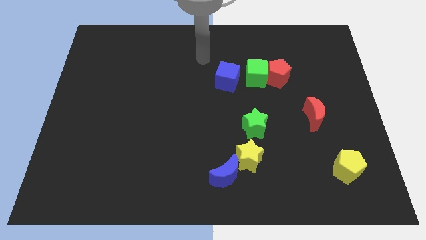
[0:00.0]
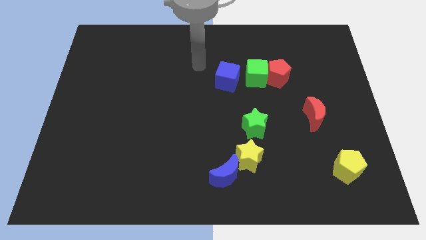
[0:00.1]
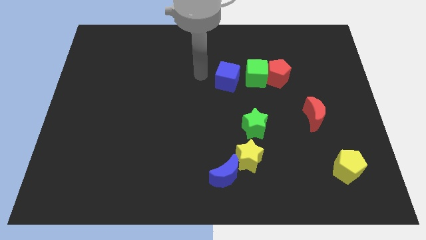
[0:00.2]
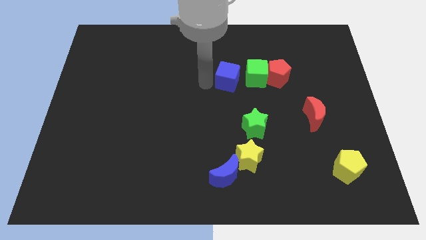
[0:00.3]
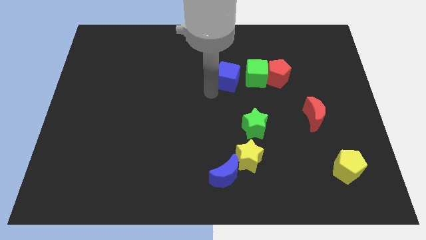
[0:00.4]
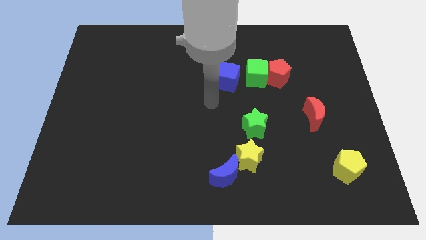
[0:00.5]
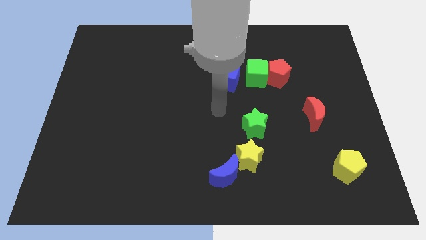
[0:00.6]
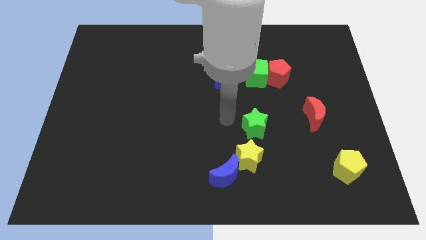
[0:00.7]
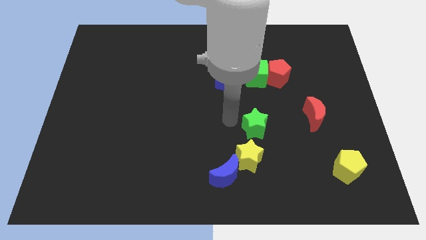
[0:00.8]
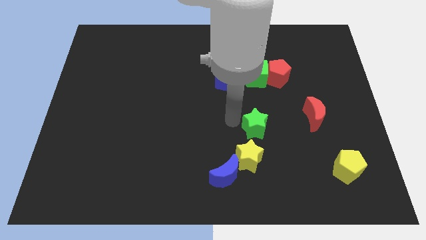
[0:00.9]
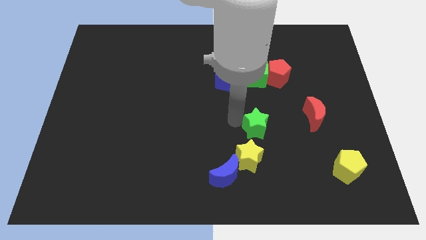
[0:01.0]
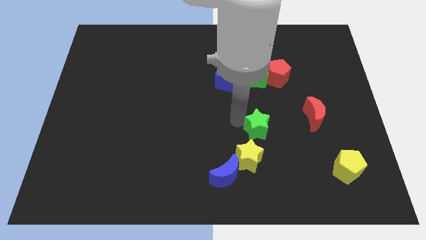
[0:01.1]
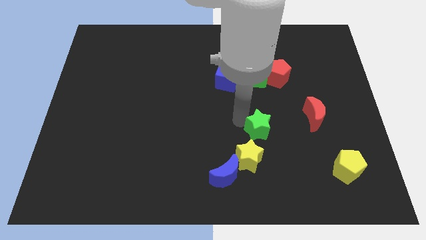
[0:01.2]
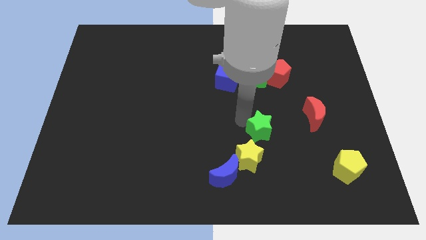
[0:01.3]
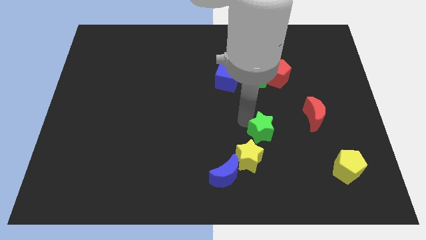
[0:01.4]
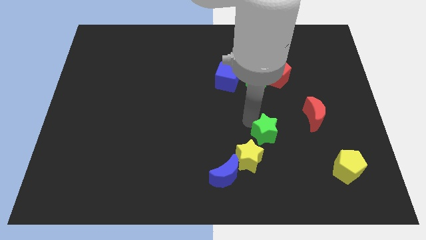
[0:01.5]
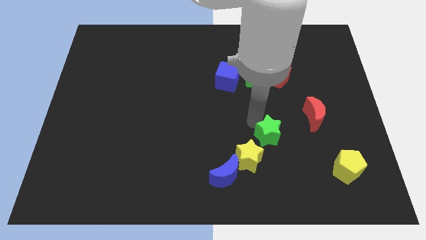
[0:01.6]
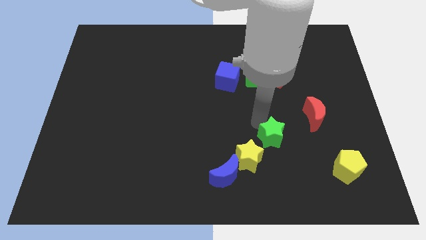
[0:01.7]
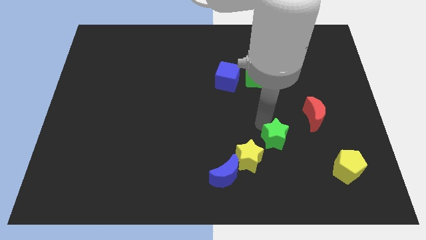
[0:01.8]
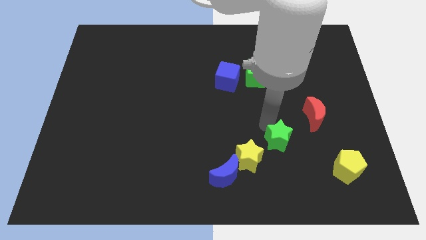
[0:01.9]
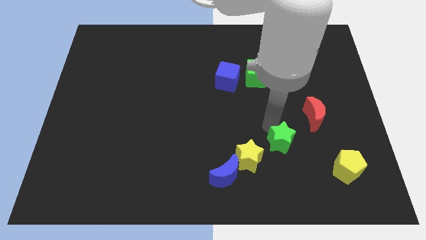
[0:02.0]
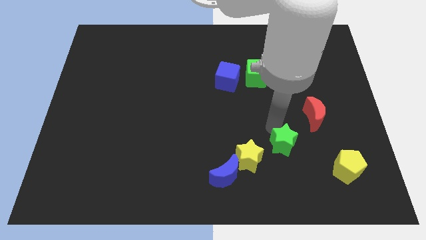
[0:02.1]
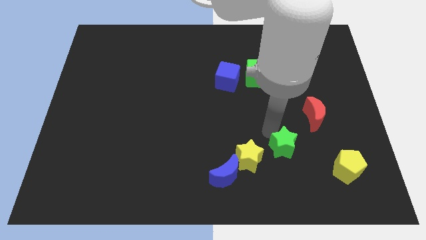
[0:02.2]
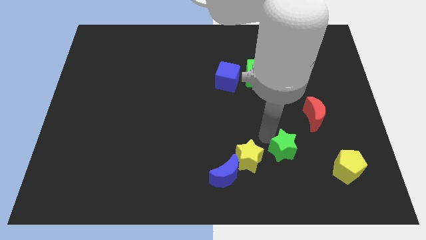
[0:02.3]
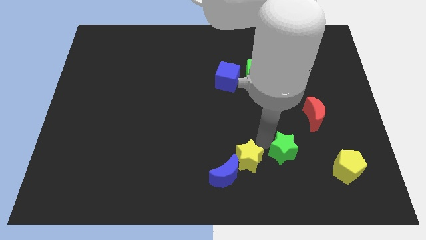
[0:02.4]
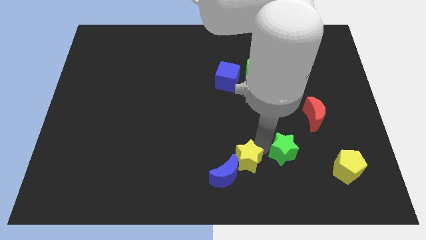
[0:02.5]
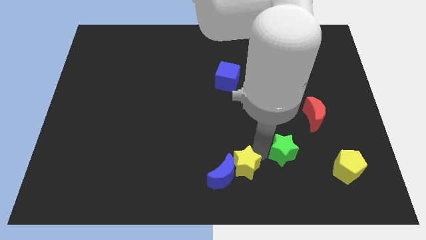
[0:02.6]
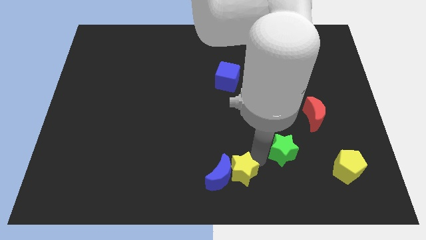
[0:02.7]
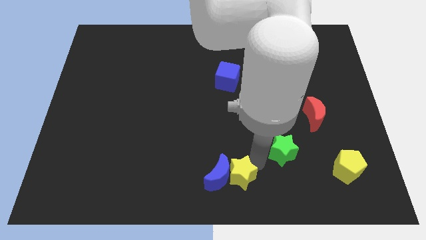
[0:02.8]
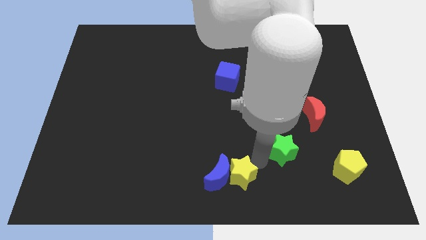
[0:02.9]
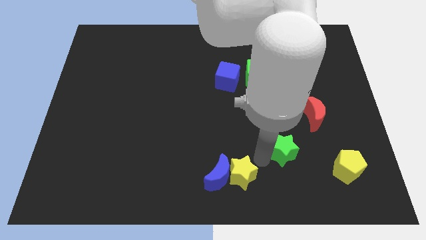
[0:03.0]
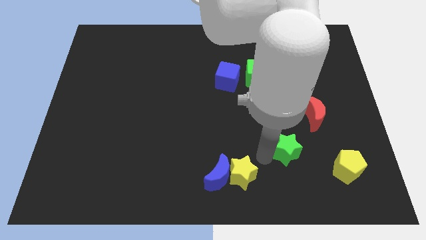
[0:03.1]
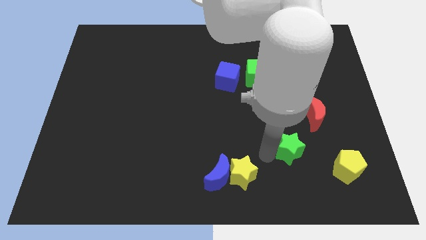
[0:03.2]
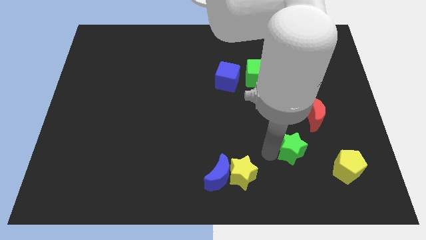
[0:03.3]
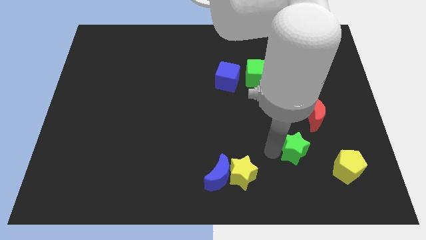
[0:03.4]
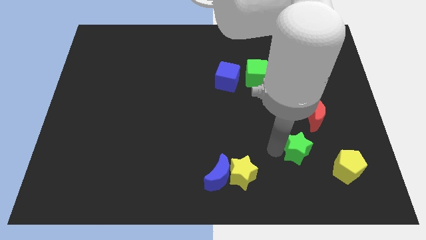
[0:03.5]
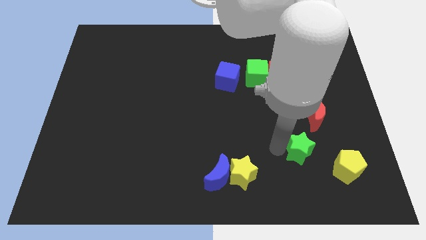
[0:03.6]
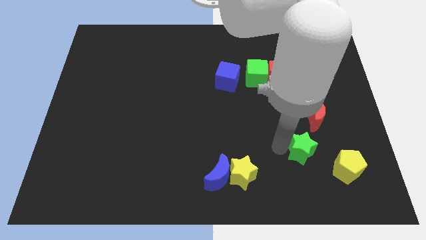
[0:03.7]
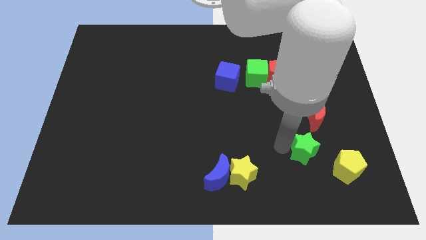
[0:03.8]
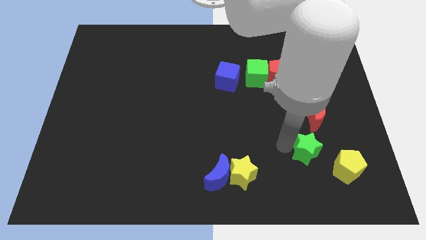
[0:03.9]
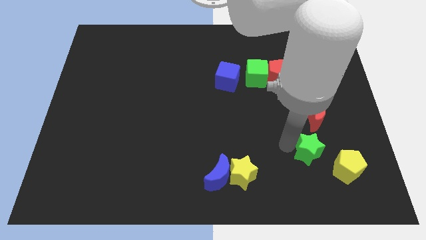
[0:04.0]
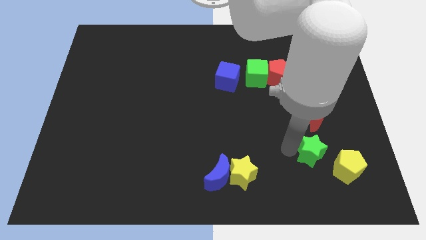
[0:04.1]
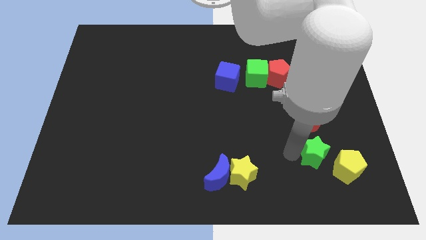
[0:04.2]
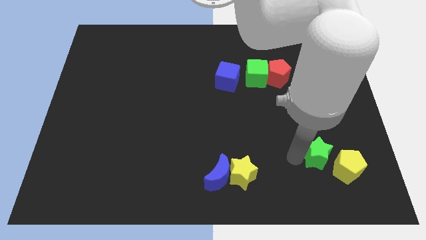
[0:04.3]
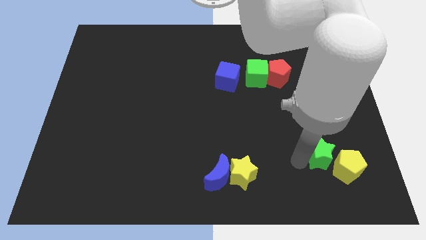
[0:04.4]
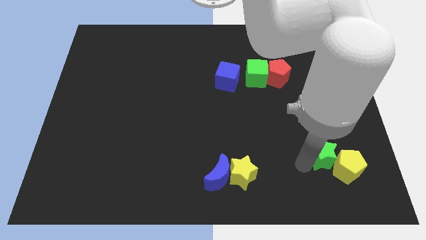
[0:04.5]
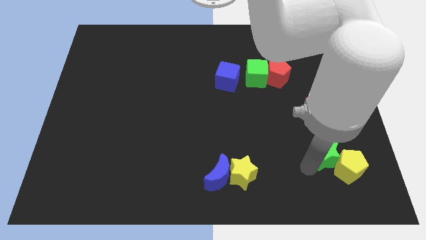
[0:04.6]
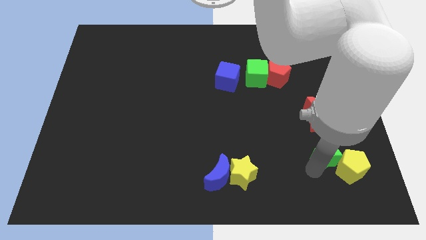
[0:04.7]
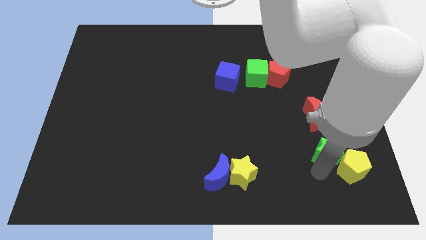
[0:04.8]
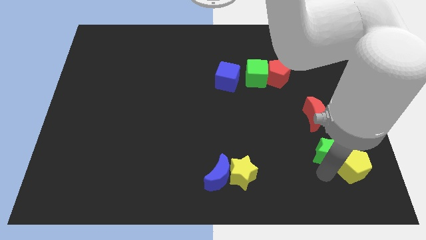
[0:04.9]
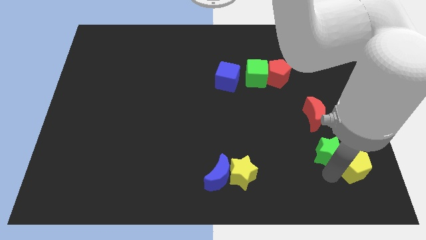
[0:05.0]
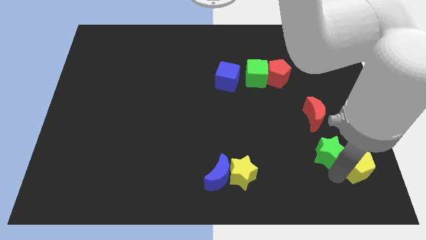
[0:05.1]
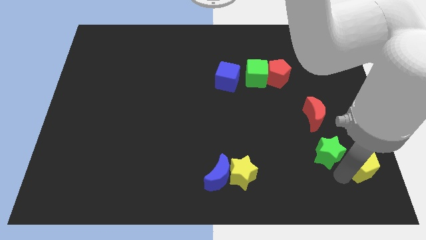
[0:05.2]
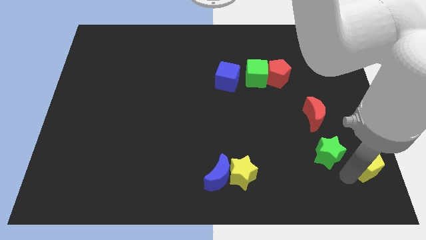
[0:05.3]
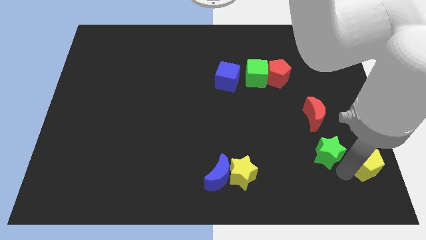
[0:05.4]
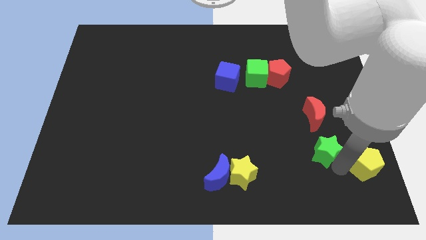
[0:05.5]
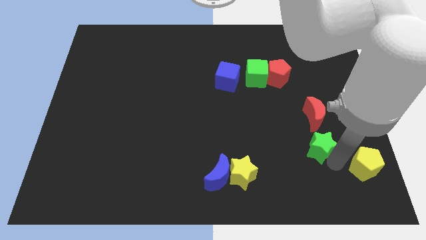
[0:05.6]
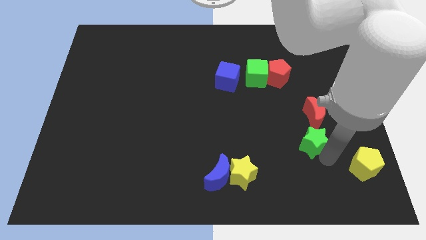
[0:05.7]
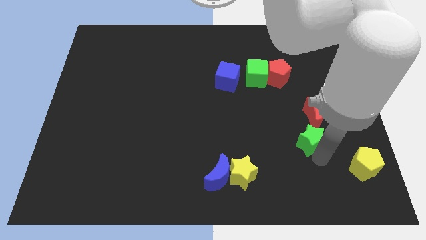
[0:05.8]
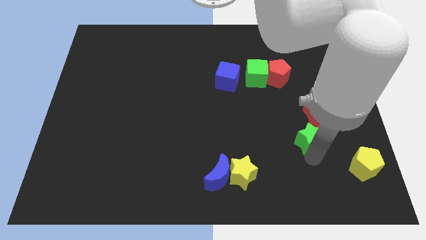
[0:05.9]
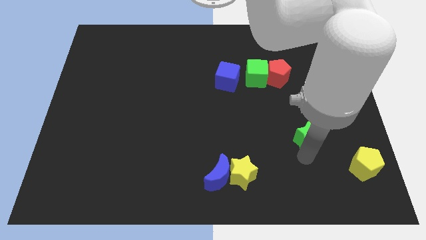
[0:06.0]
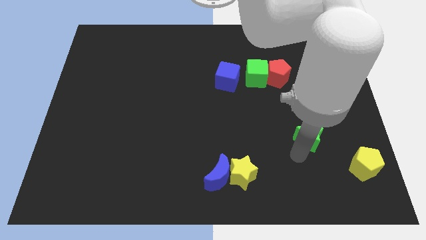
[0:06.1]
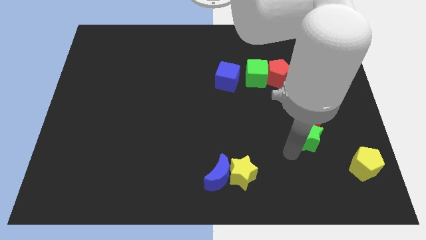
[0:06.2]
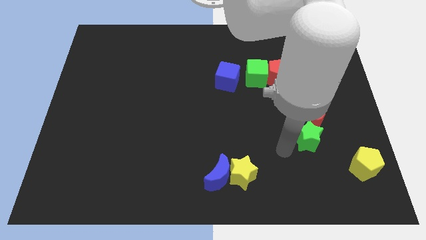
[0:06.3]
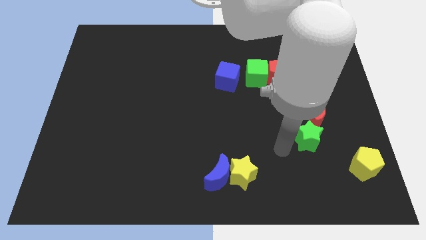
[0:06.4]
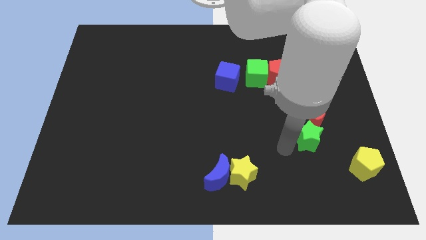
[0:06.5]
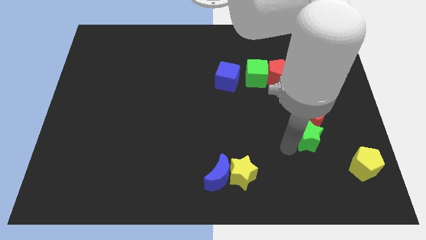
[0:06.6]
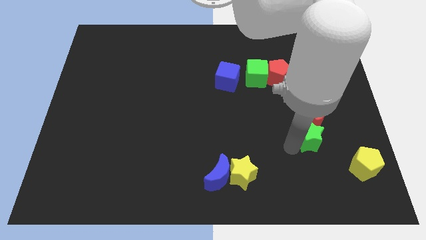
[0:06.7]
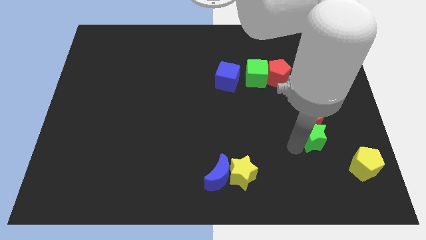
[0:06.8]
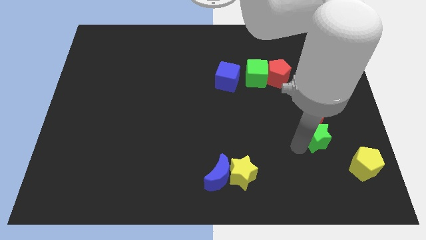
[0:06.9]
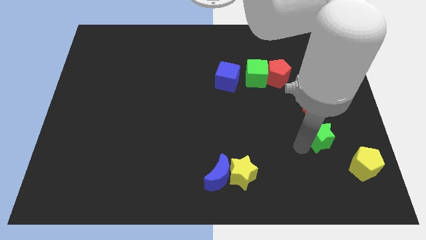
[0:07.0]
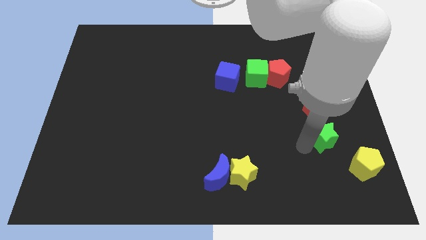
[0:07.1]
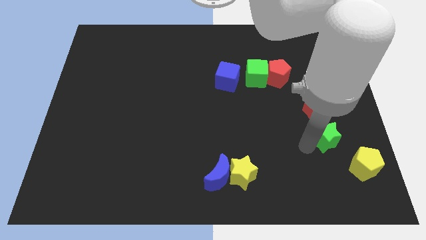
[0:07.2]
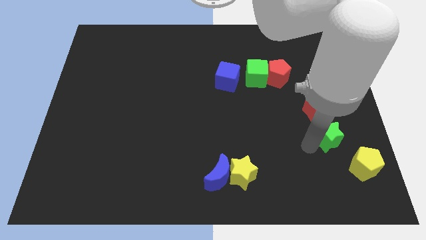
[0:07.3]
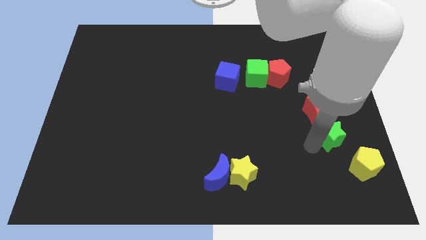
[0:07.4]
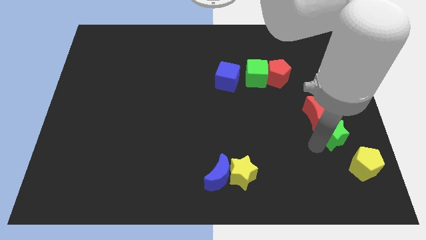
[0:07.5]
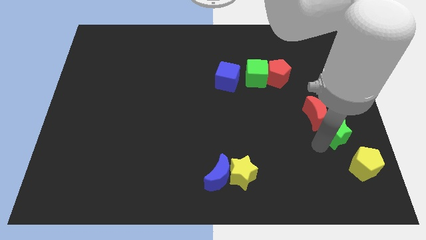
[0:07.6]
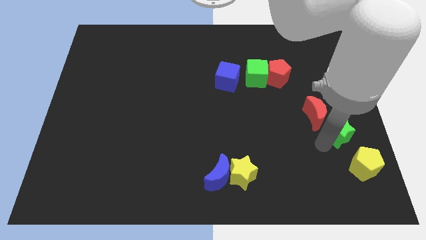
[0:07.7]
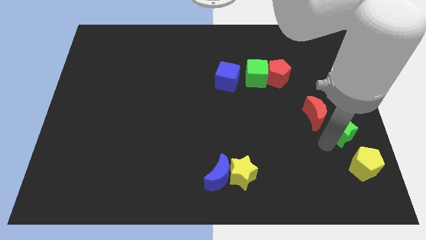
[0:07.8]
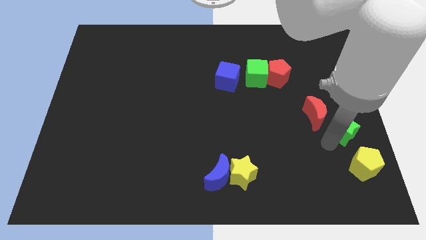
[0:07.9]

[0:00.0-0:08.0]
put the green star to the center right
